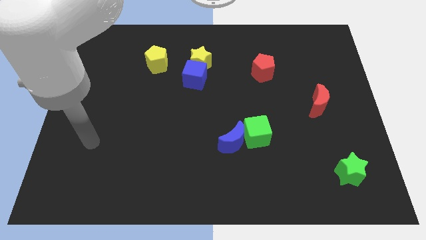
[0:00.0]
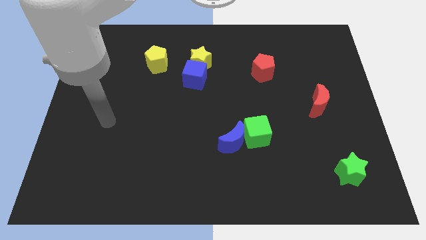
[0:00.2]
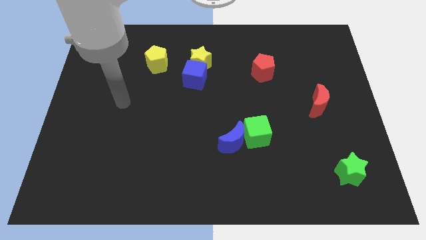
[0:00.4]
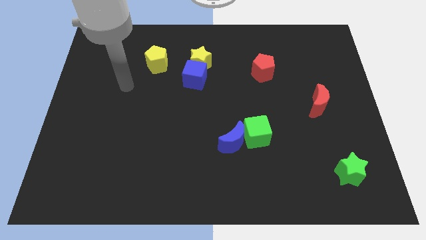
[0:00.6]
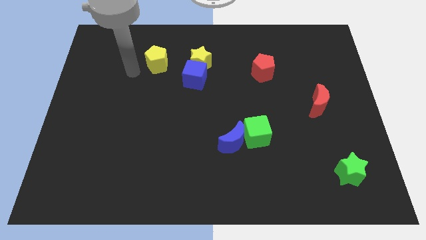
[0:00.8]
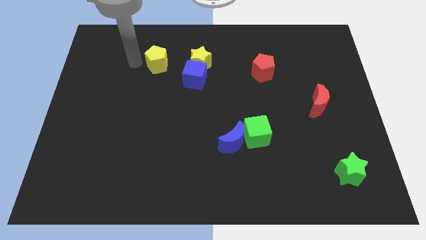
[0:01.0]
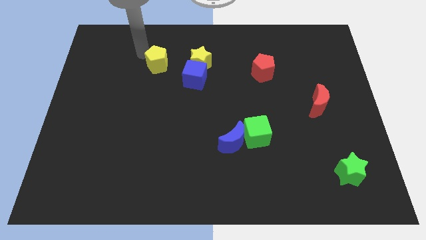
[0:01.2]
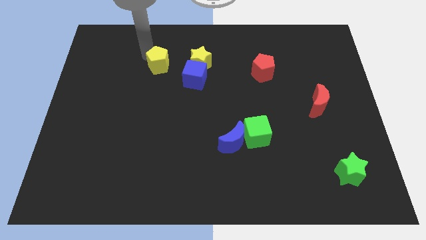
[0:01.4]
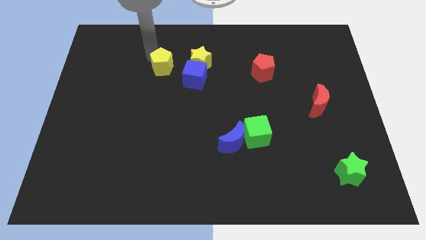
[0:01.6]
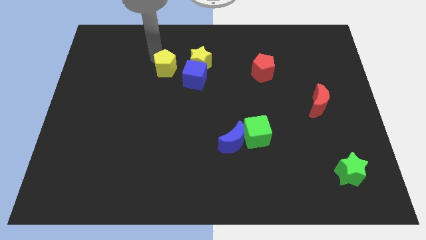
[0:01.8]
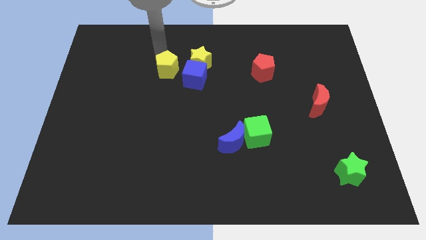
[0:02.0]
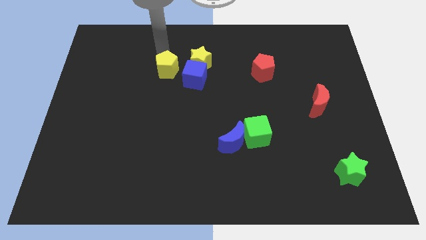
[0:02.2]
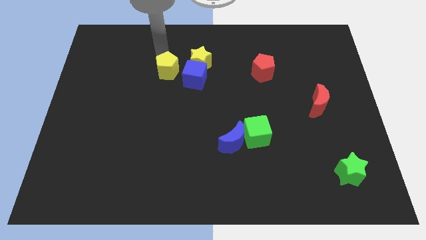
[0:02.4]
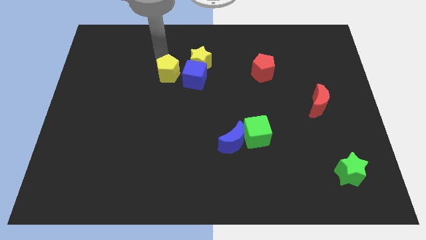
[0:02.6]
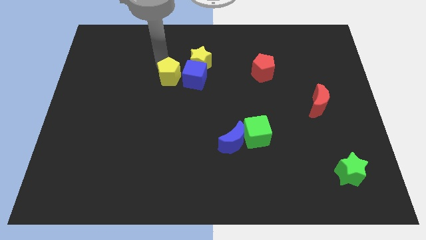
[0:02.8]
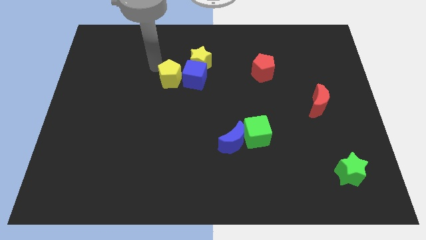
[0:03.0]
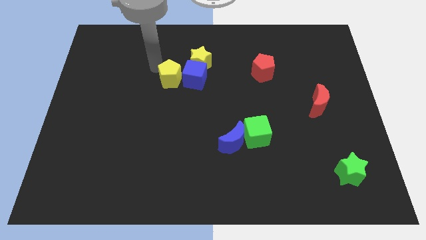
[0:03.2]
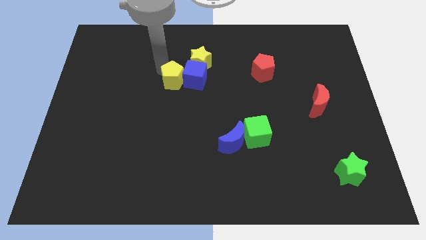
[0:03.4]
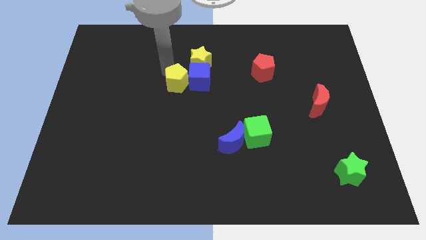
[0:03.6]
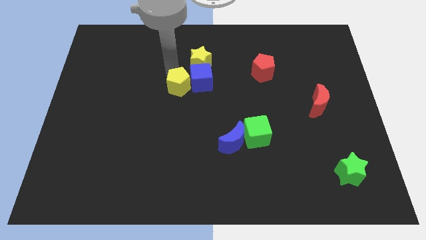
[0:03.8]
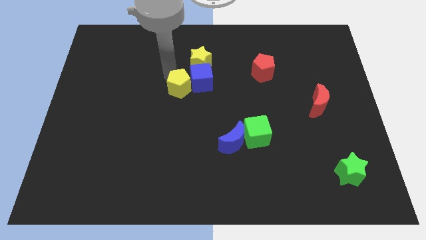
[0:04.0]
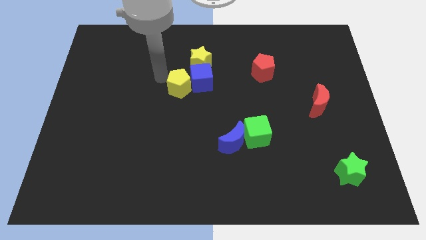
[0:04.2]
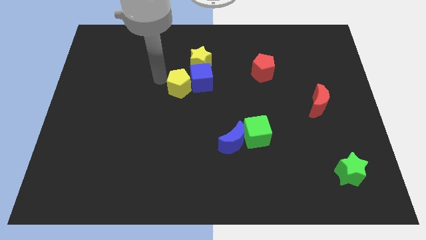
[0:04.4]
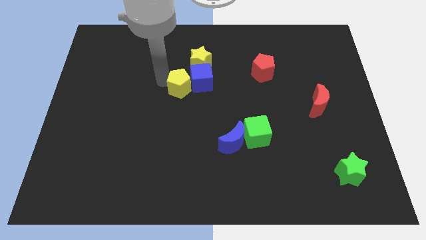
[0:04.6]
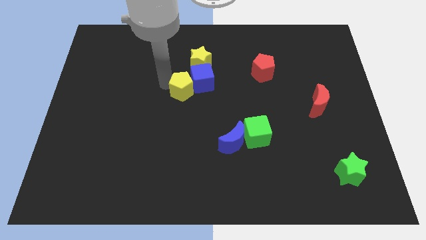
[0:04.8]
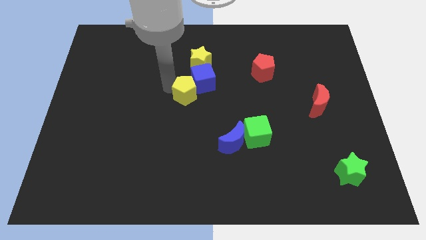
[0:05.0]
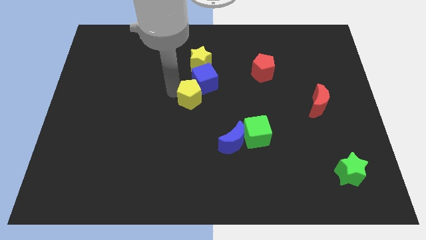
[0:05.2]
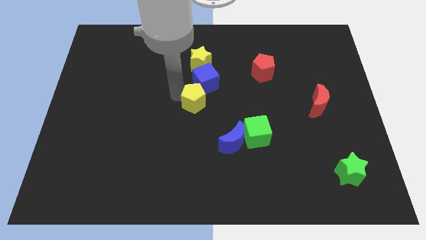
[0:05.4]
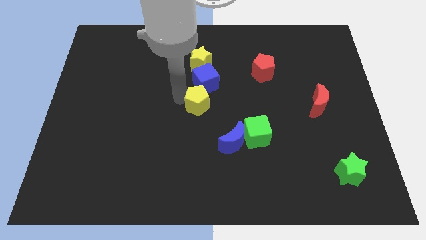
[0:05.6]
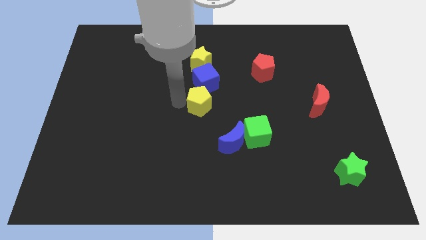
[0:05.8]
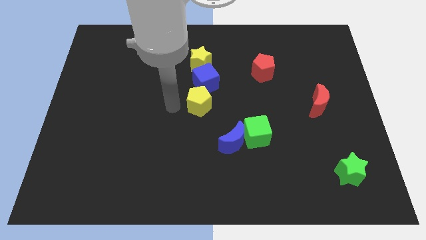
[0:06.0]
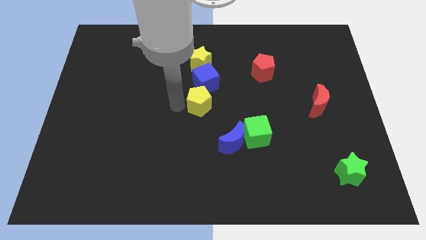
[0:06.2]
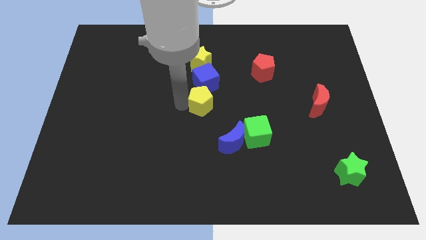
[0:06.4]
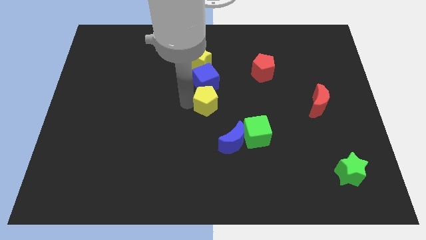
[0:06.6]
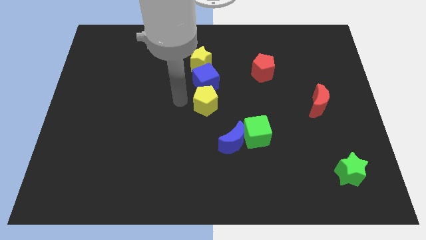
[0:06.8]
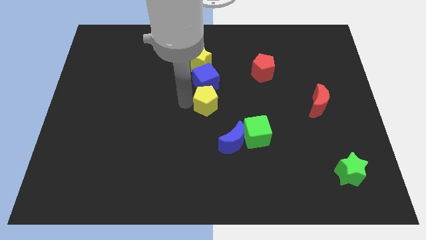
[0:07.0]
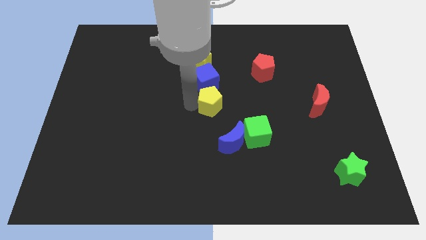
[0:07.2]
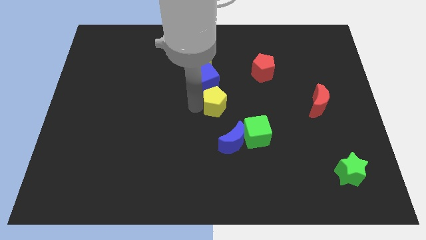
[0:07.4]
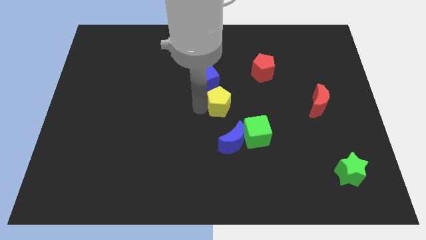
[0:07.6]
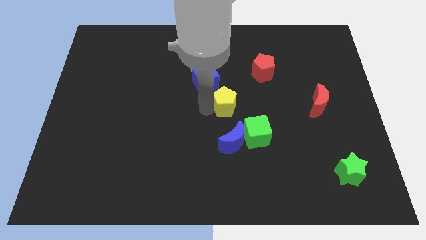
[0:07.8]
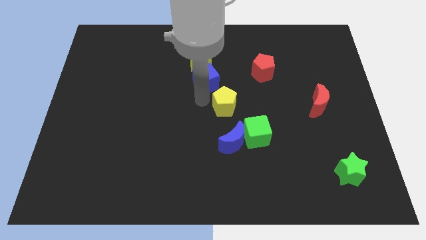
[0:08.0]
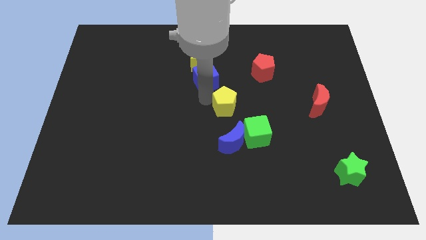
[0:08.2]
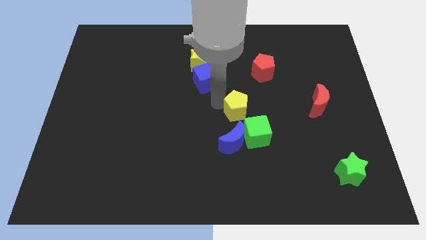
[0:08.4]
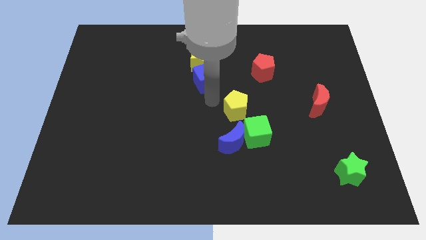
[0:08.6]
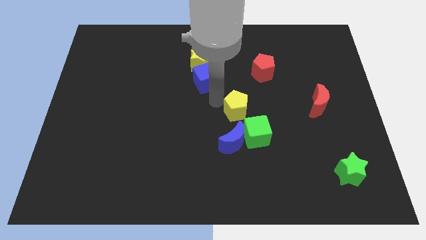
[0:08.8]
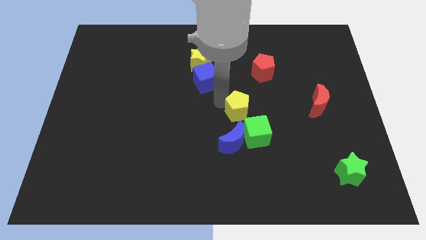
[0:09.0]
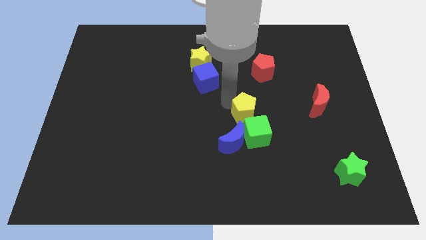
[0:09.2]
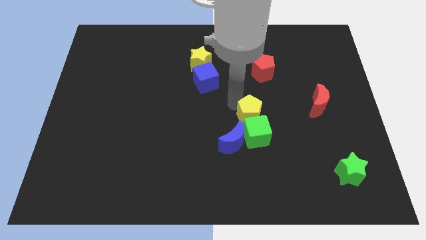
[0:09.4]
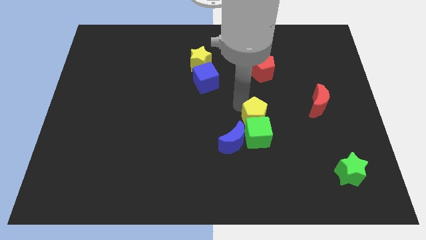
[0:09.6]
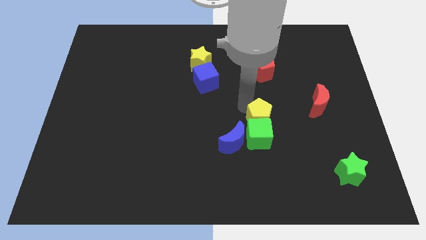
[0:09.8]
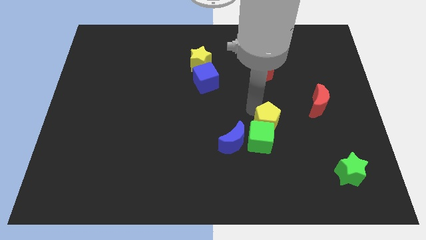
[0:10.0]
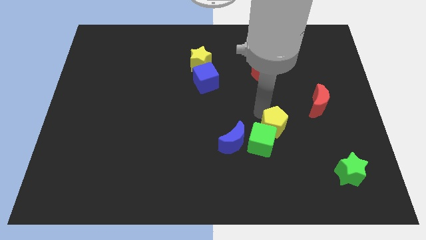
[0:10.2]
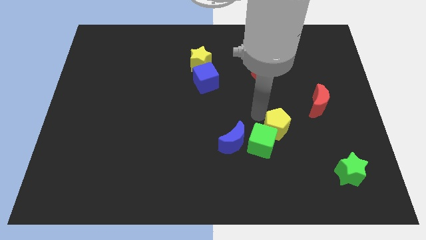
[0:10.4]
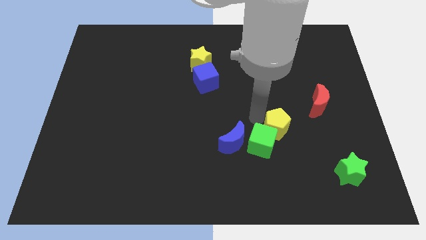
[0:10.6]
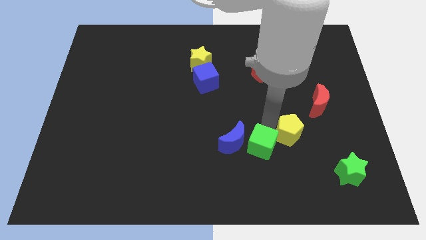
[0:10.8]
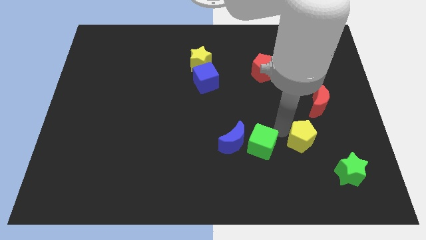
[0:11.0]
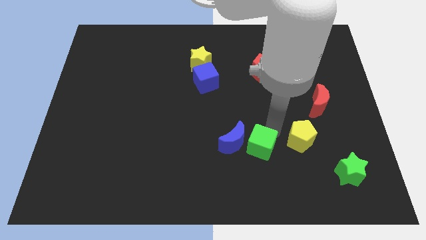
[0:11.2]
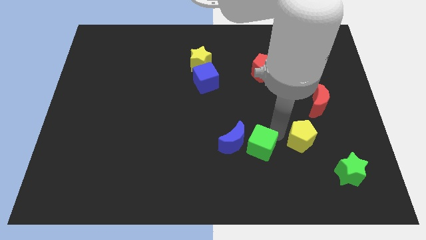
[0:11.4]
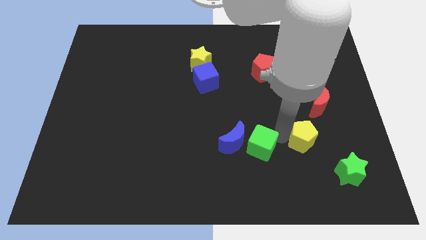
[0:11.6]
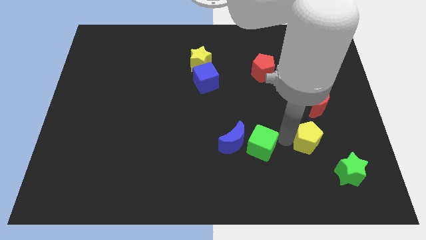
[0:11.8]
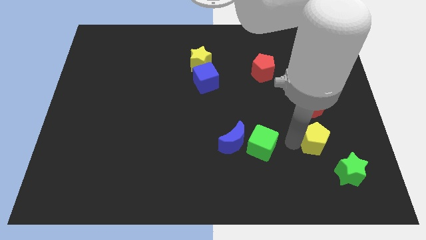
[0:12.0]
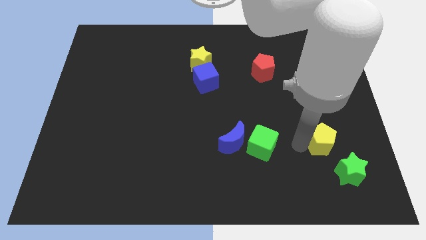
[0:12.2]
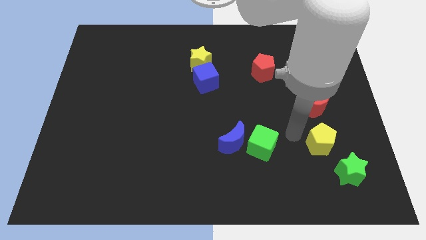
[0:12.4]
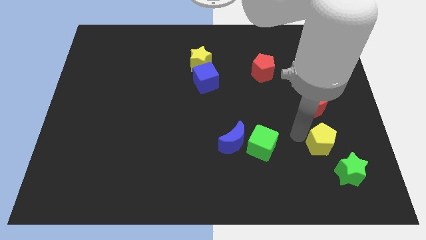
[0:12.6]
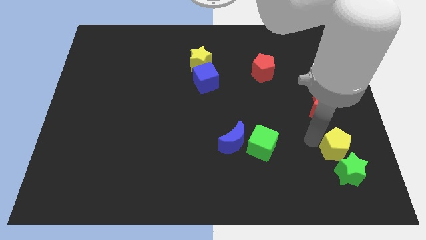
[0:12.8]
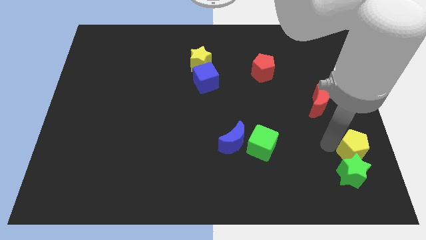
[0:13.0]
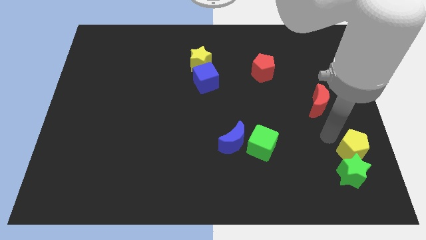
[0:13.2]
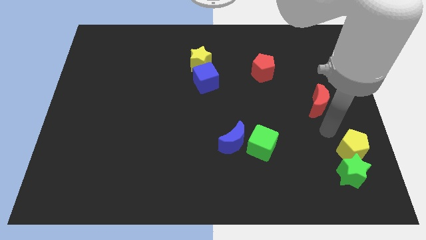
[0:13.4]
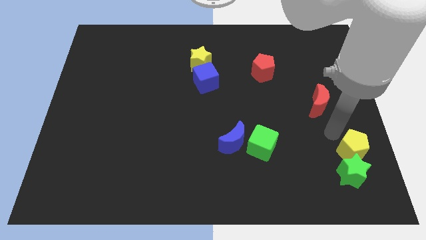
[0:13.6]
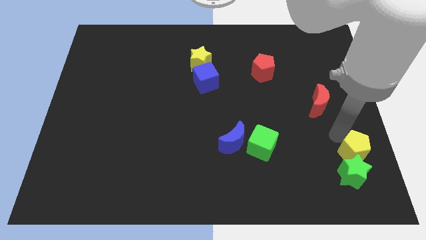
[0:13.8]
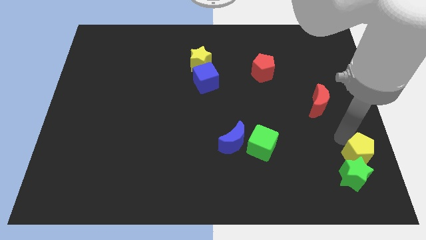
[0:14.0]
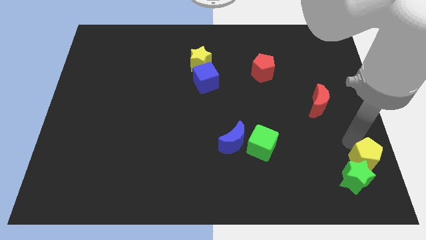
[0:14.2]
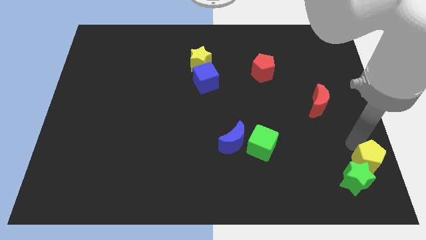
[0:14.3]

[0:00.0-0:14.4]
put the yellow pentagon to the bottom right of the board
